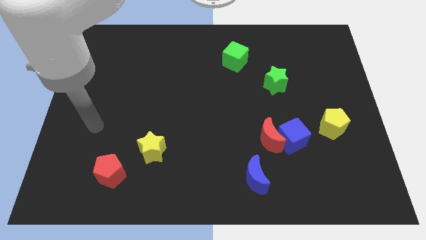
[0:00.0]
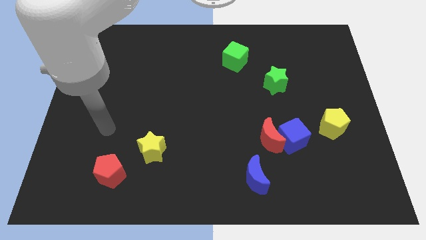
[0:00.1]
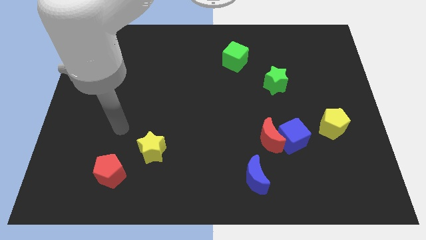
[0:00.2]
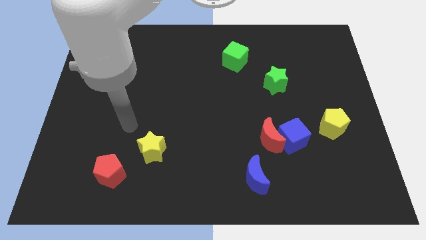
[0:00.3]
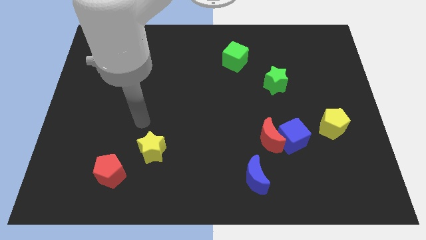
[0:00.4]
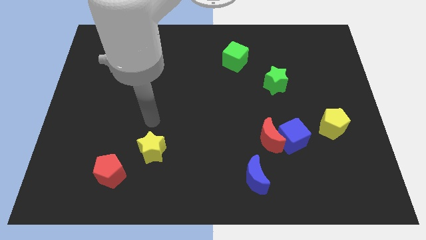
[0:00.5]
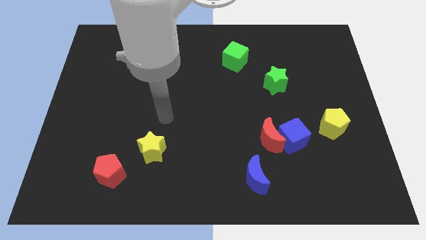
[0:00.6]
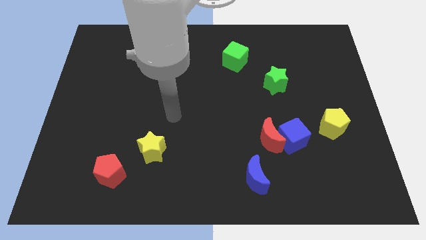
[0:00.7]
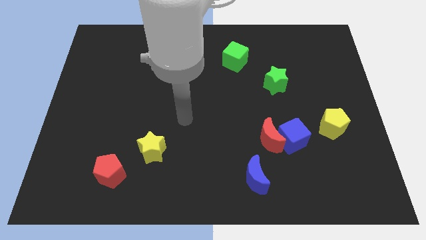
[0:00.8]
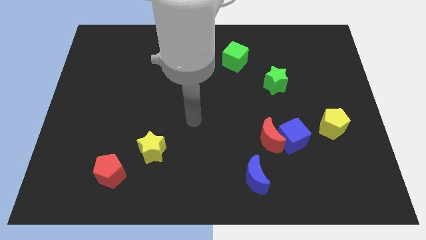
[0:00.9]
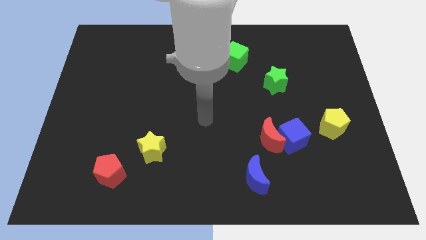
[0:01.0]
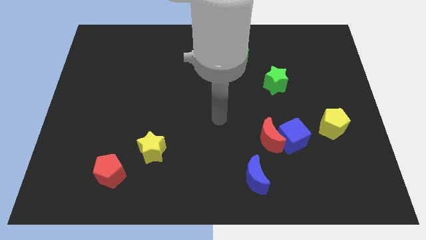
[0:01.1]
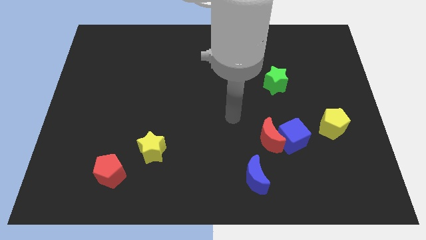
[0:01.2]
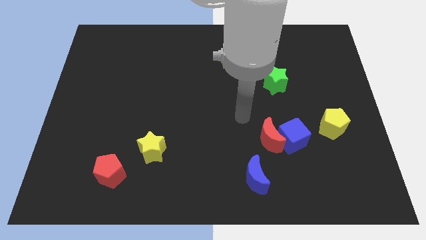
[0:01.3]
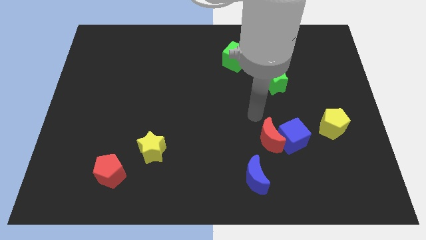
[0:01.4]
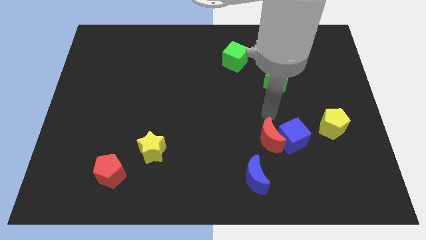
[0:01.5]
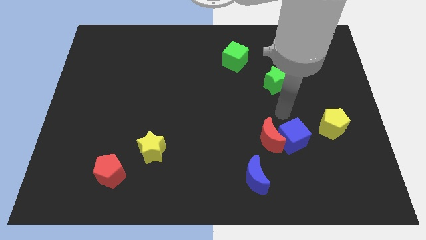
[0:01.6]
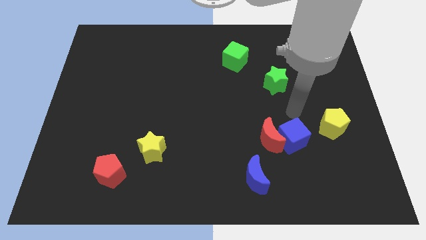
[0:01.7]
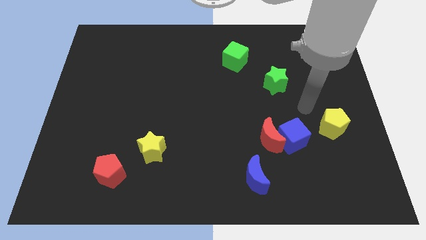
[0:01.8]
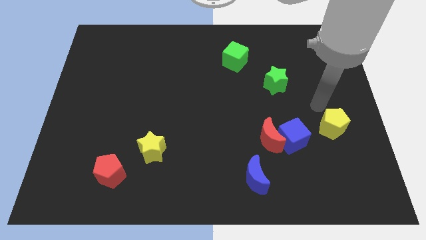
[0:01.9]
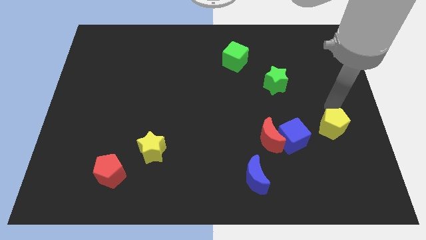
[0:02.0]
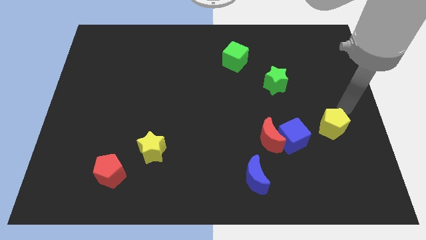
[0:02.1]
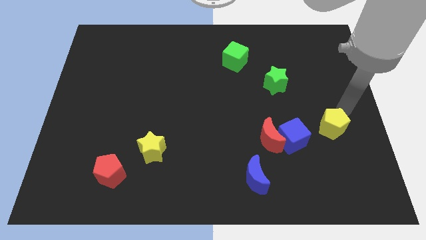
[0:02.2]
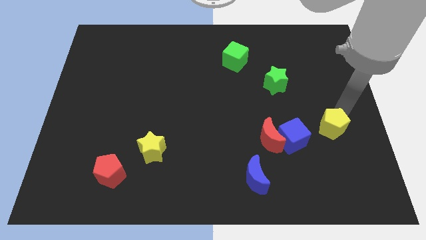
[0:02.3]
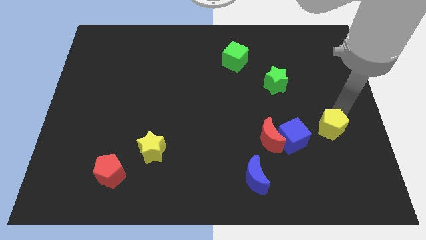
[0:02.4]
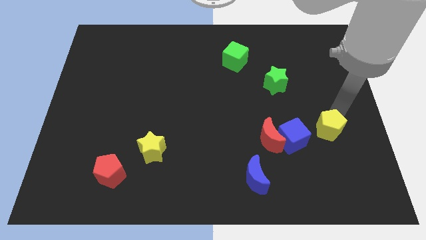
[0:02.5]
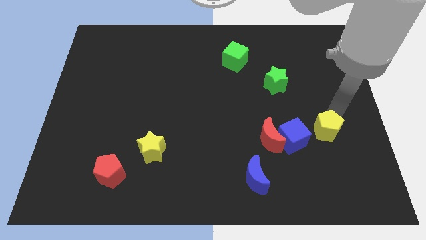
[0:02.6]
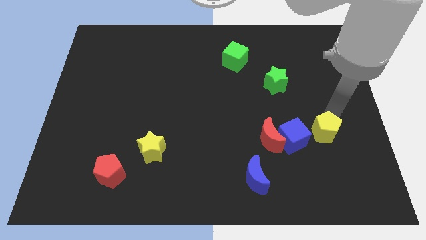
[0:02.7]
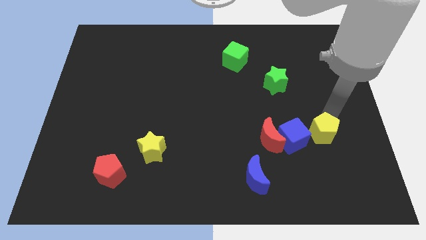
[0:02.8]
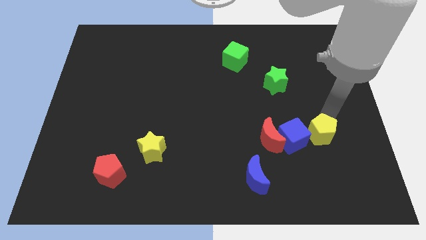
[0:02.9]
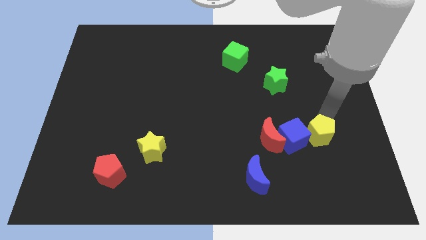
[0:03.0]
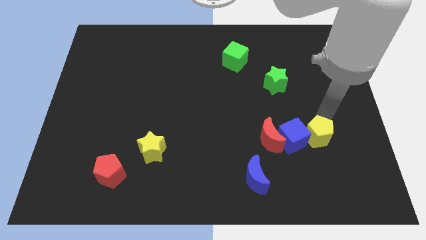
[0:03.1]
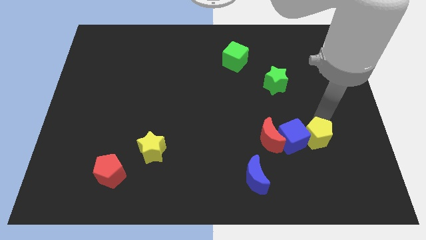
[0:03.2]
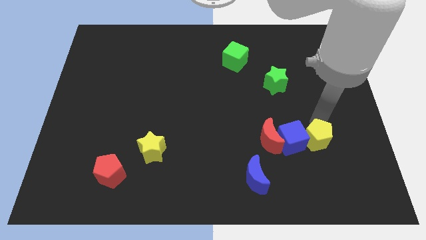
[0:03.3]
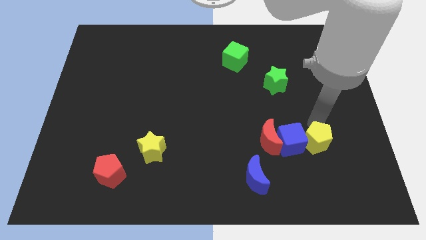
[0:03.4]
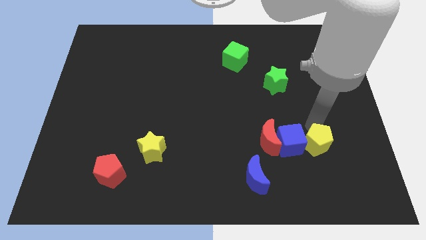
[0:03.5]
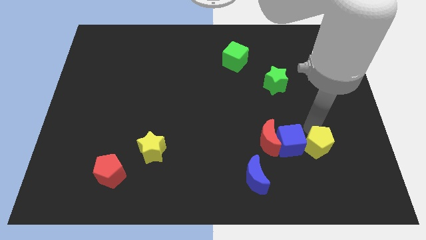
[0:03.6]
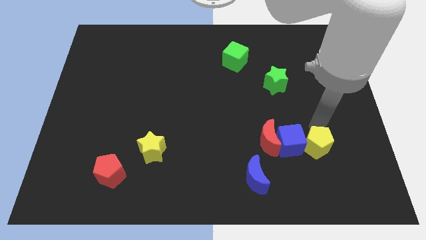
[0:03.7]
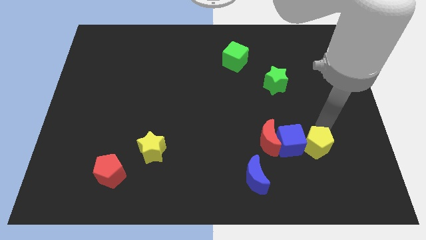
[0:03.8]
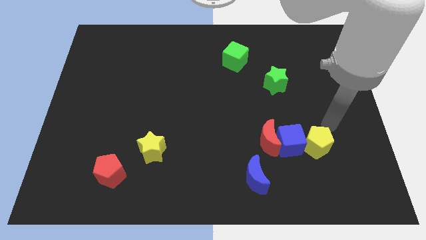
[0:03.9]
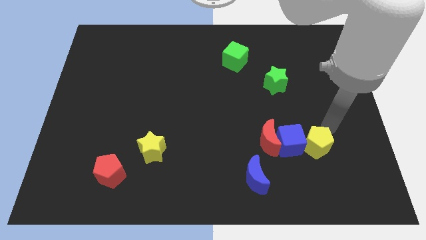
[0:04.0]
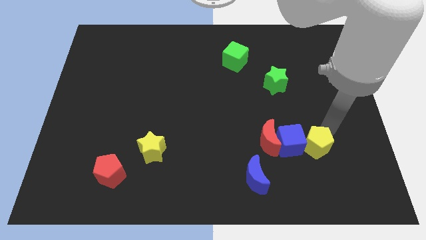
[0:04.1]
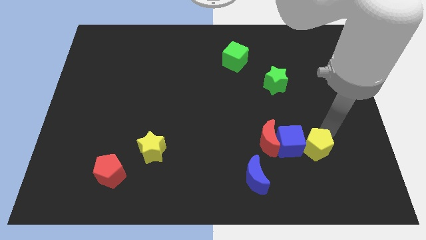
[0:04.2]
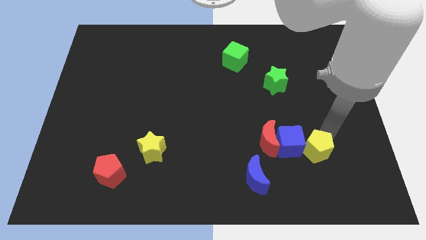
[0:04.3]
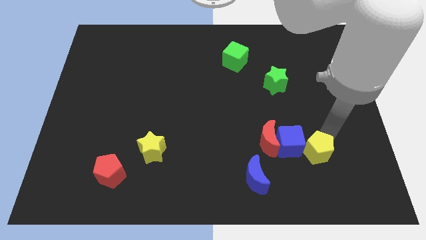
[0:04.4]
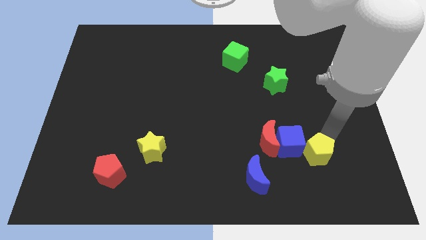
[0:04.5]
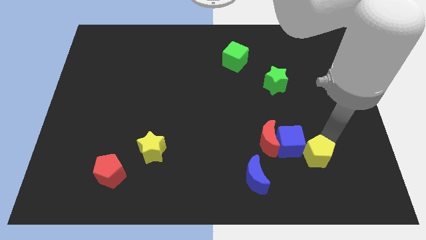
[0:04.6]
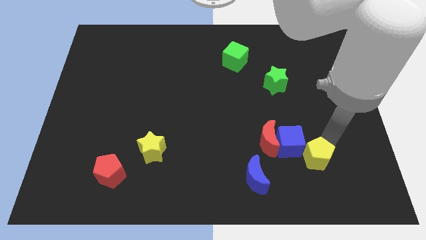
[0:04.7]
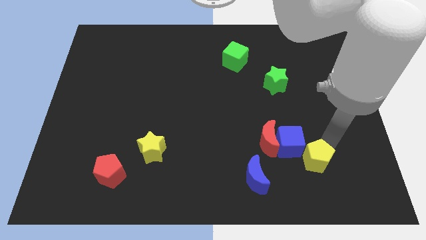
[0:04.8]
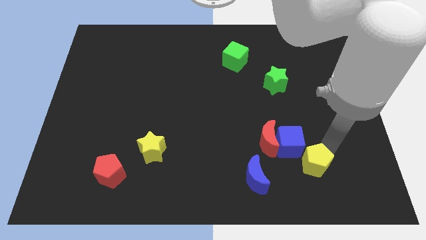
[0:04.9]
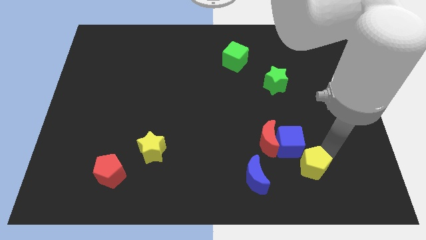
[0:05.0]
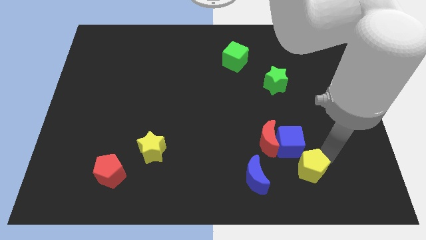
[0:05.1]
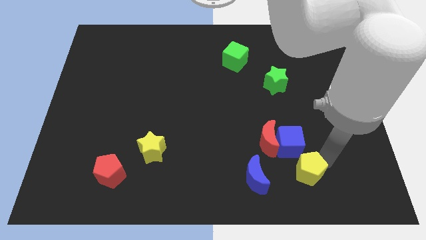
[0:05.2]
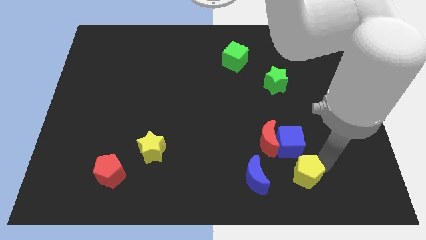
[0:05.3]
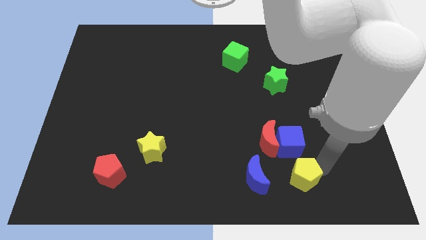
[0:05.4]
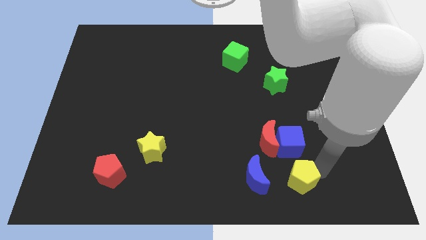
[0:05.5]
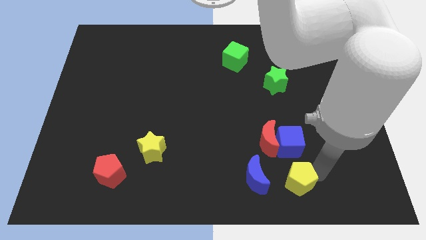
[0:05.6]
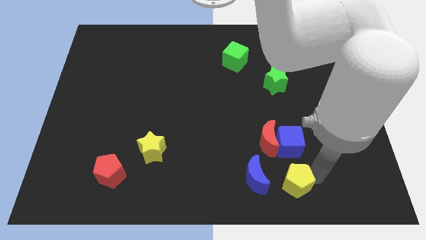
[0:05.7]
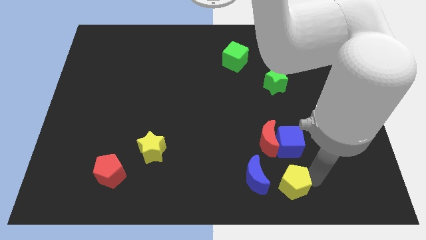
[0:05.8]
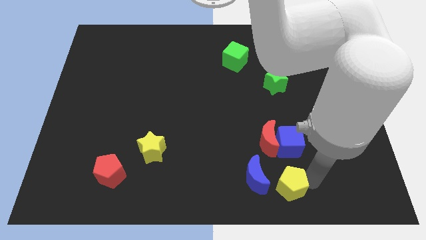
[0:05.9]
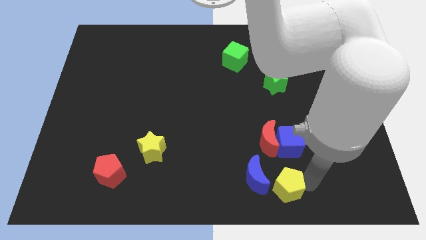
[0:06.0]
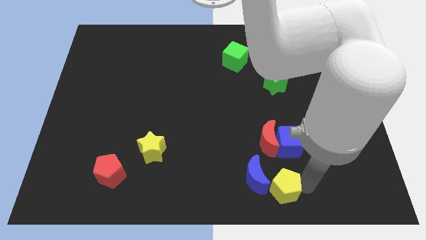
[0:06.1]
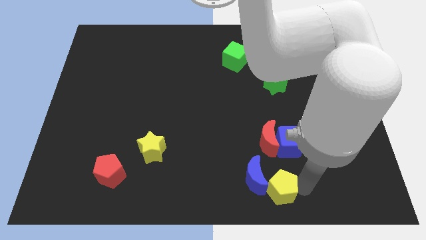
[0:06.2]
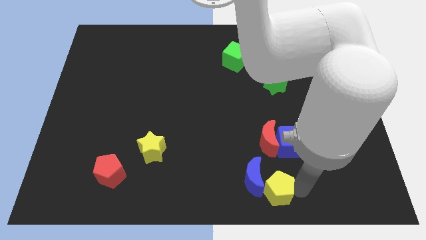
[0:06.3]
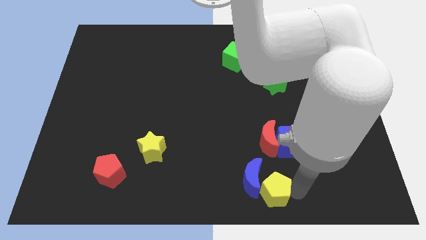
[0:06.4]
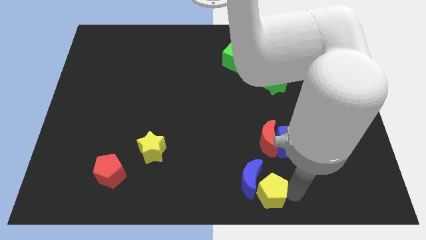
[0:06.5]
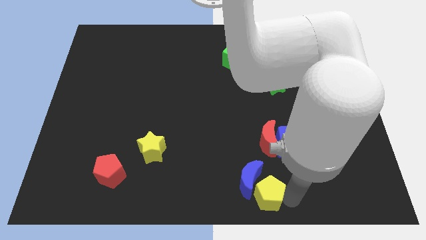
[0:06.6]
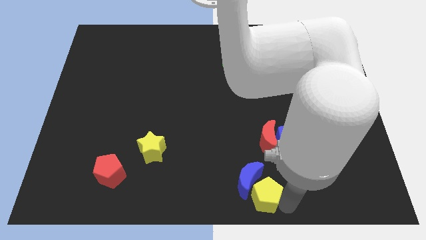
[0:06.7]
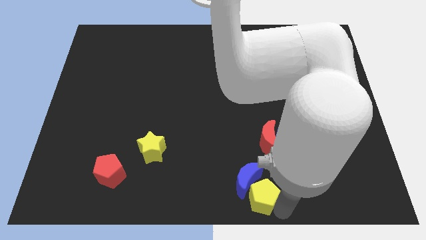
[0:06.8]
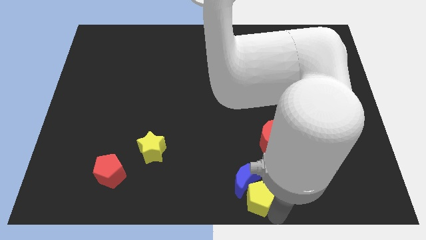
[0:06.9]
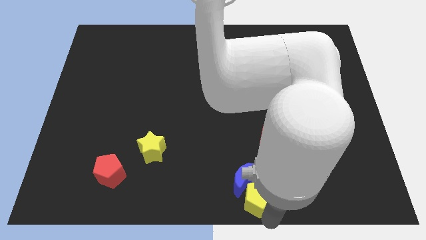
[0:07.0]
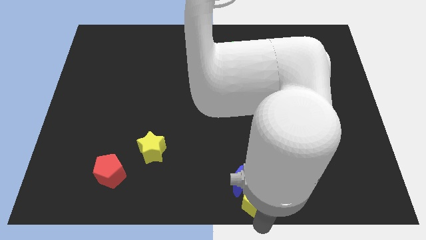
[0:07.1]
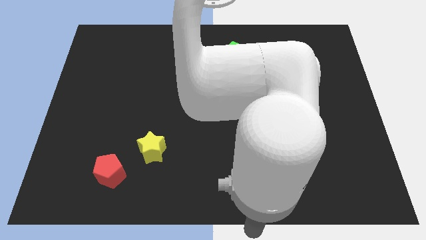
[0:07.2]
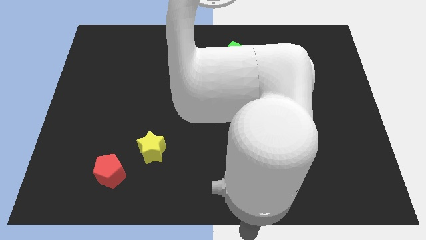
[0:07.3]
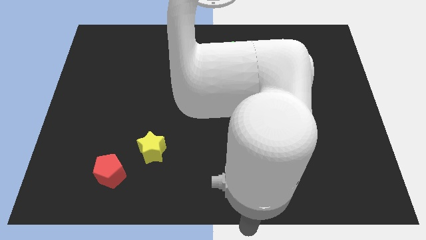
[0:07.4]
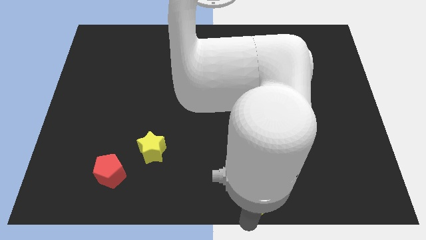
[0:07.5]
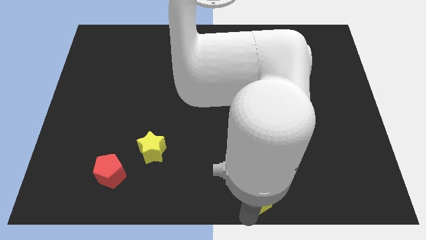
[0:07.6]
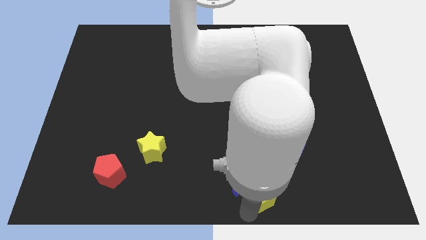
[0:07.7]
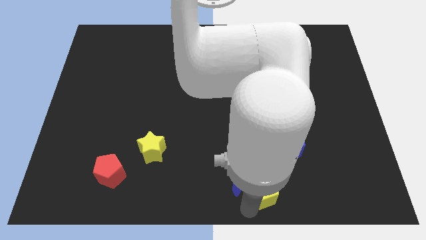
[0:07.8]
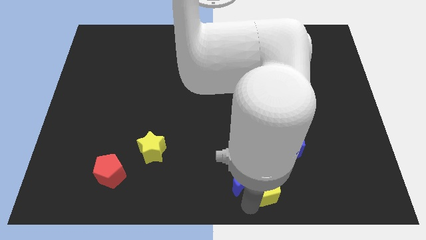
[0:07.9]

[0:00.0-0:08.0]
put the yellow pentagon to the bottom left of the blue cube
